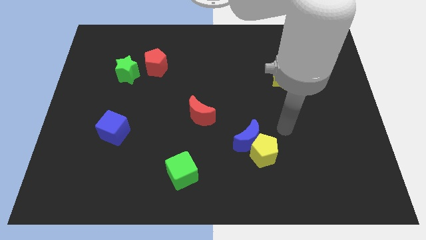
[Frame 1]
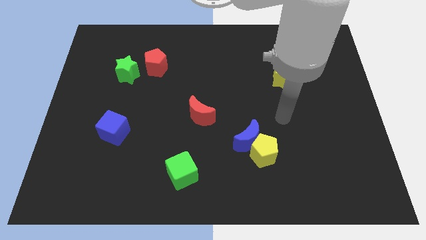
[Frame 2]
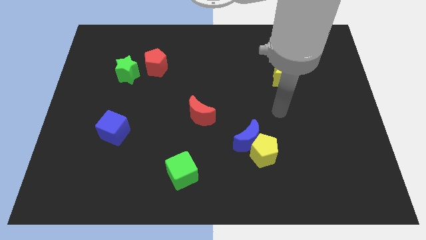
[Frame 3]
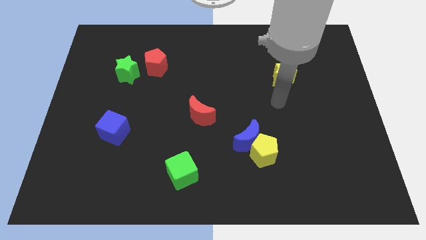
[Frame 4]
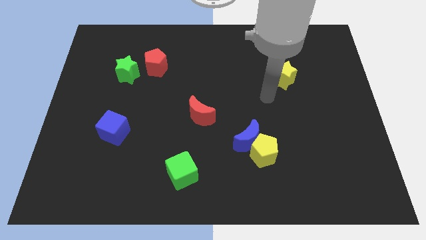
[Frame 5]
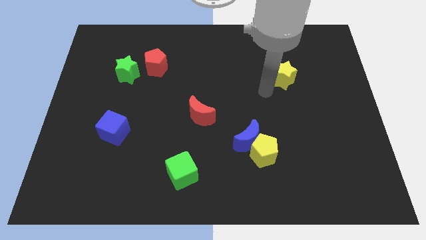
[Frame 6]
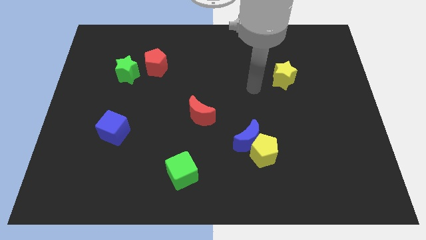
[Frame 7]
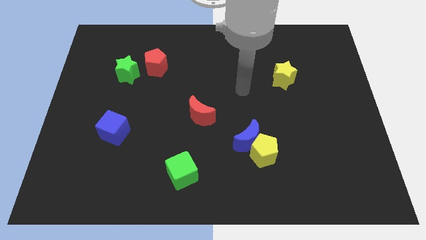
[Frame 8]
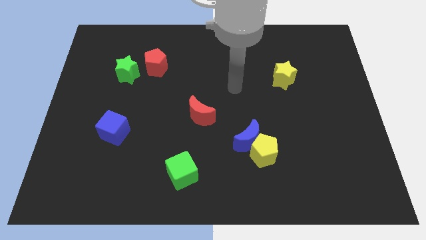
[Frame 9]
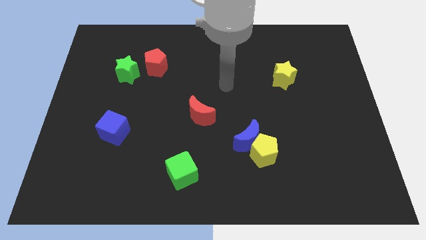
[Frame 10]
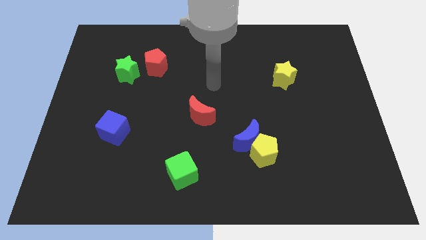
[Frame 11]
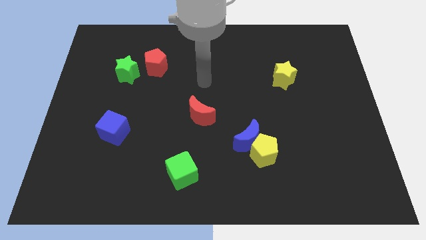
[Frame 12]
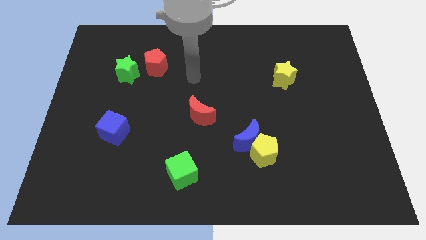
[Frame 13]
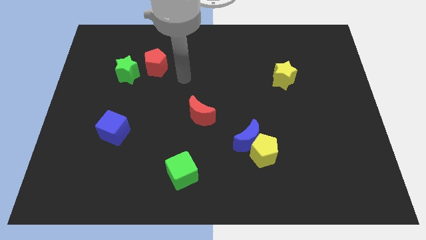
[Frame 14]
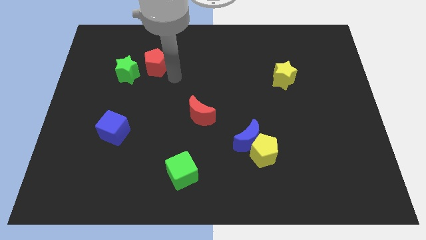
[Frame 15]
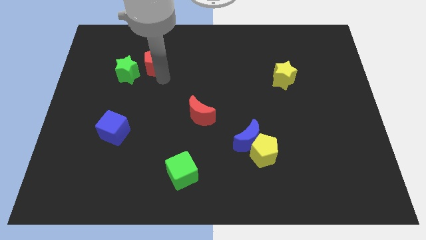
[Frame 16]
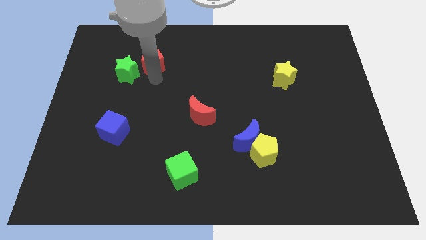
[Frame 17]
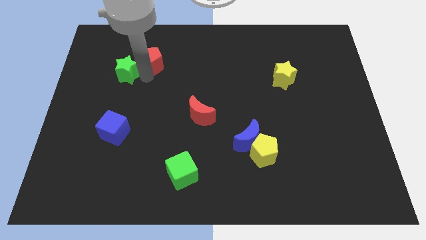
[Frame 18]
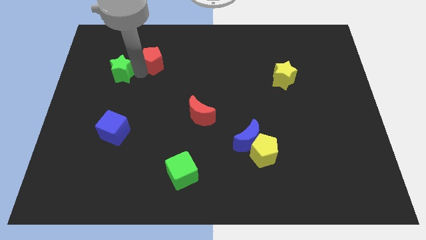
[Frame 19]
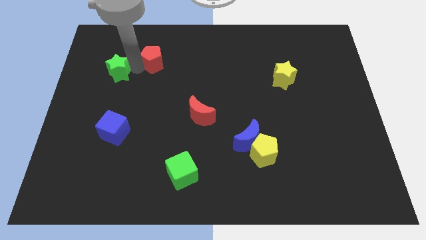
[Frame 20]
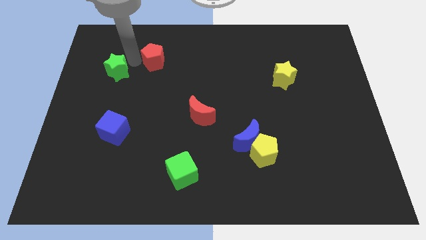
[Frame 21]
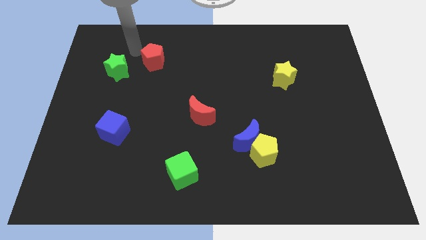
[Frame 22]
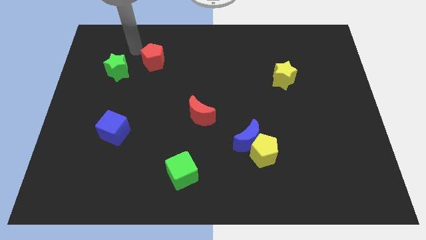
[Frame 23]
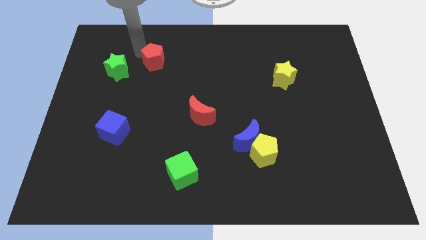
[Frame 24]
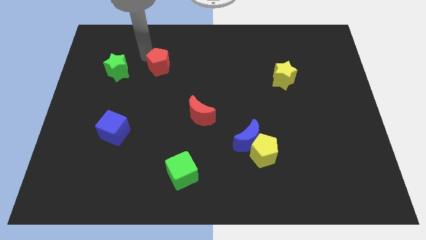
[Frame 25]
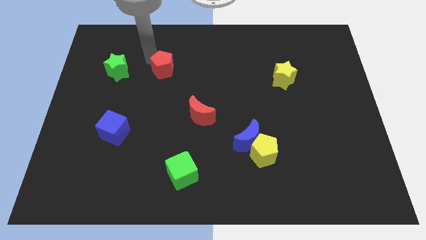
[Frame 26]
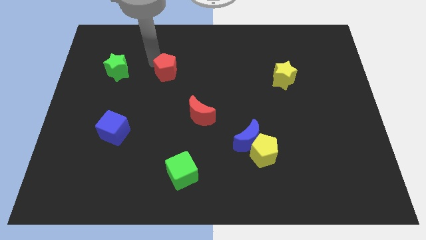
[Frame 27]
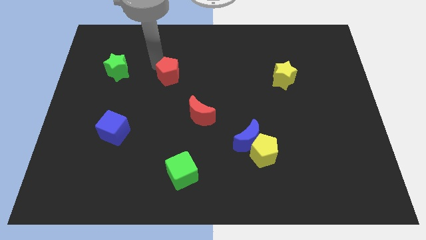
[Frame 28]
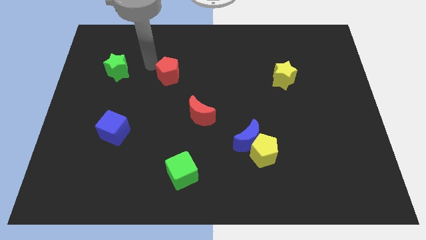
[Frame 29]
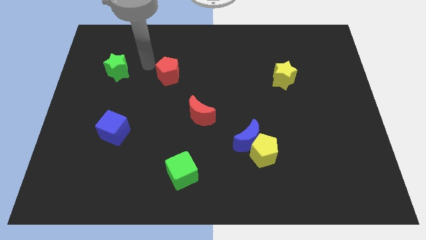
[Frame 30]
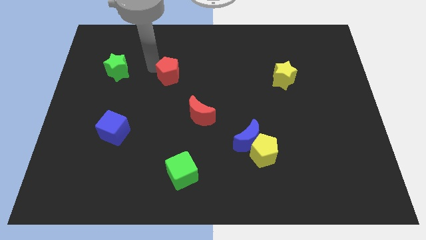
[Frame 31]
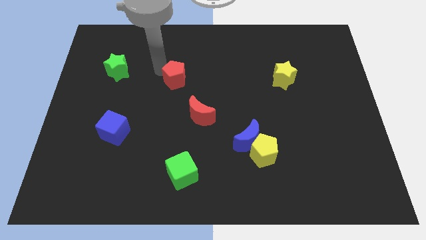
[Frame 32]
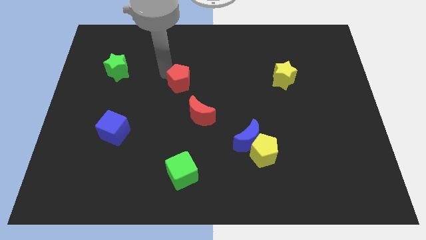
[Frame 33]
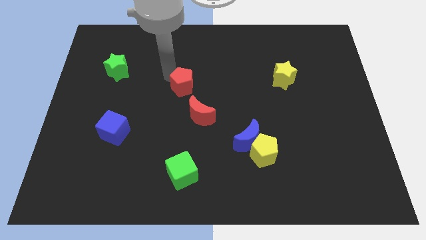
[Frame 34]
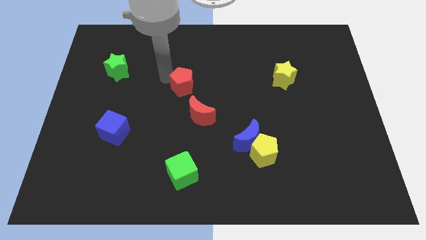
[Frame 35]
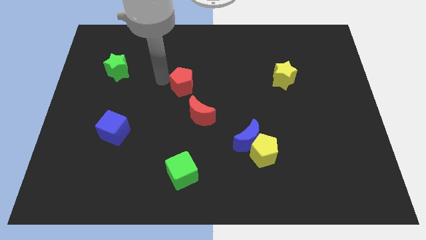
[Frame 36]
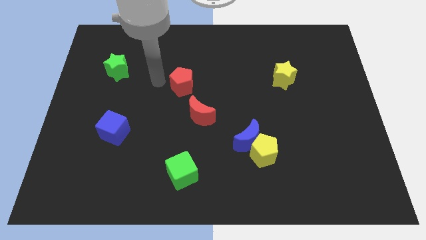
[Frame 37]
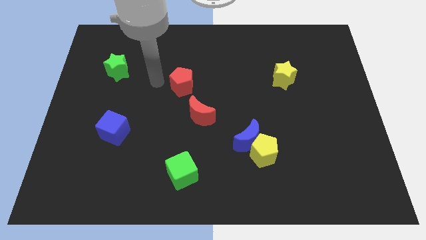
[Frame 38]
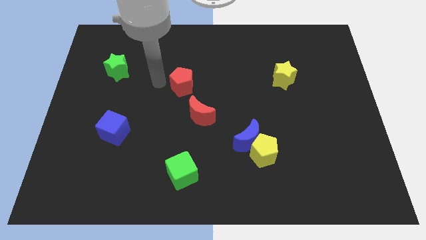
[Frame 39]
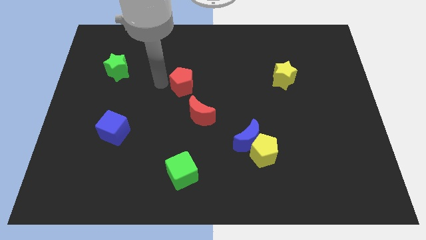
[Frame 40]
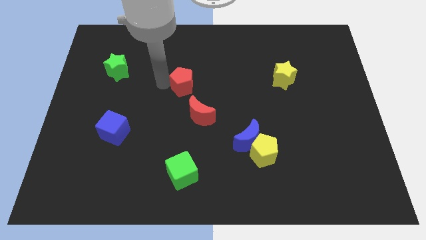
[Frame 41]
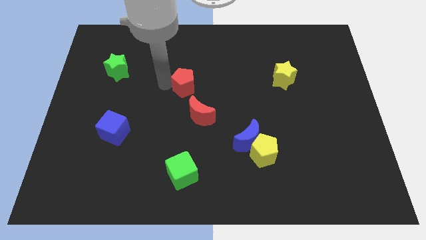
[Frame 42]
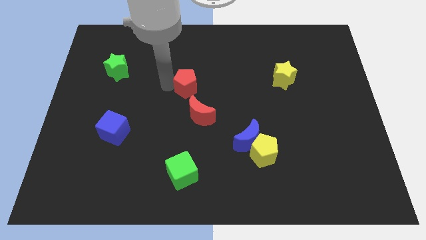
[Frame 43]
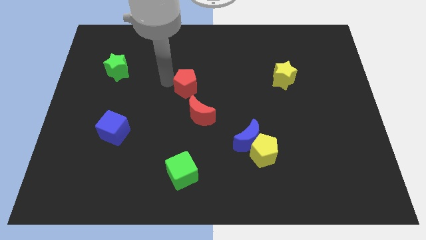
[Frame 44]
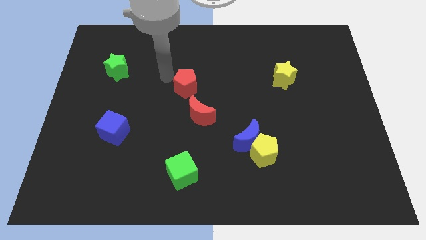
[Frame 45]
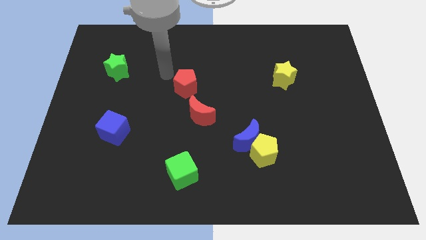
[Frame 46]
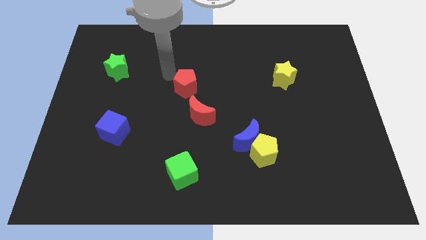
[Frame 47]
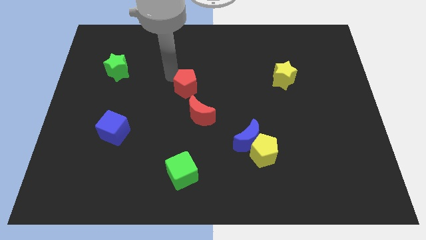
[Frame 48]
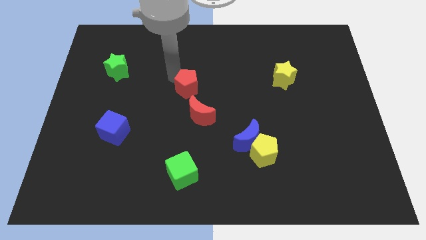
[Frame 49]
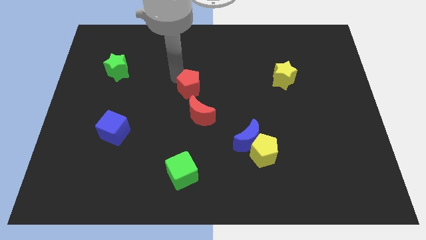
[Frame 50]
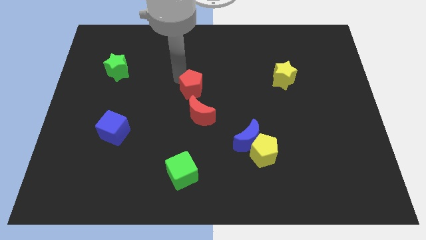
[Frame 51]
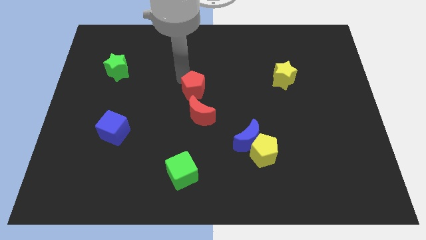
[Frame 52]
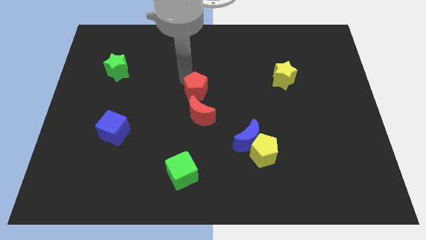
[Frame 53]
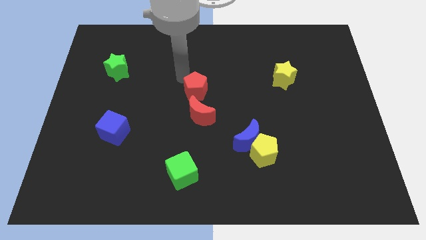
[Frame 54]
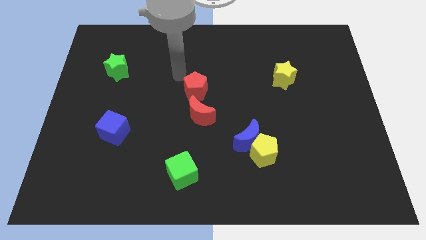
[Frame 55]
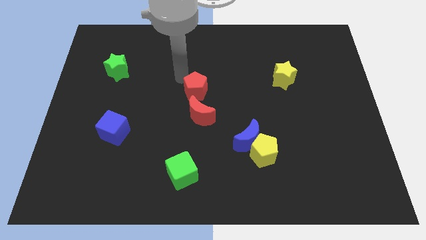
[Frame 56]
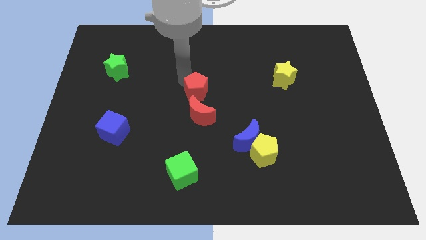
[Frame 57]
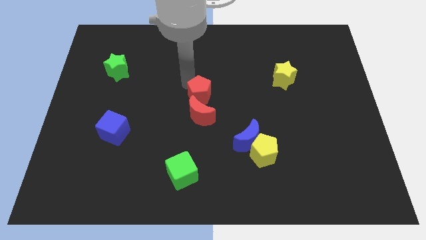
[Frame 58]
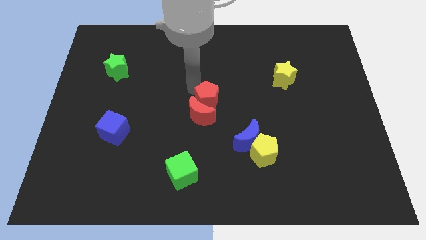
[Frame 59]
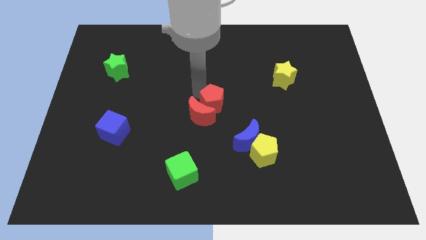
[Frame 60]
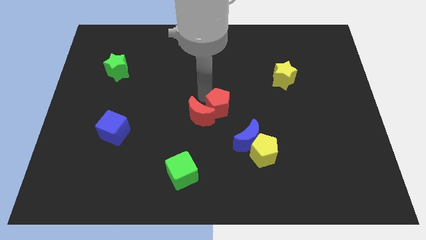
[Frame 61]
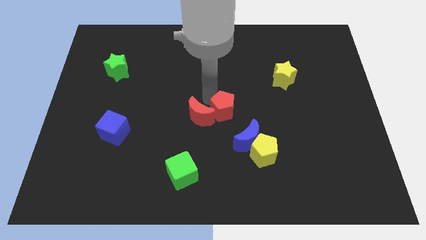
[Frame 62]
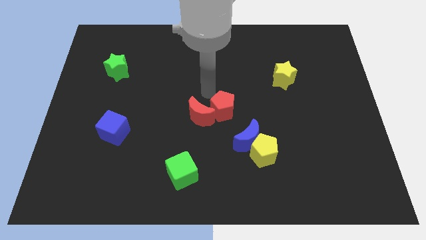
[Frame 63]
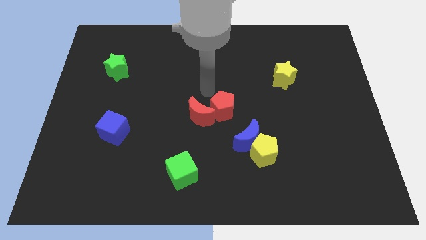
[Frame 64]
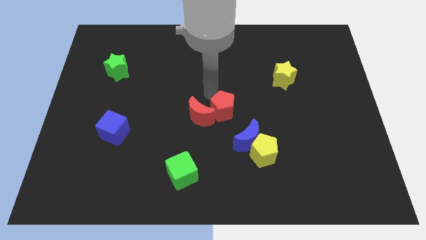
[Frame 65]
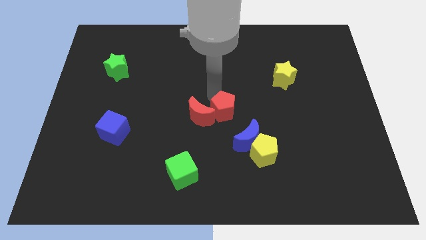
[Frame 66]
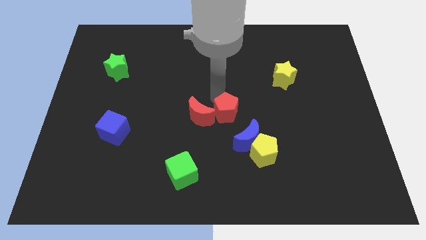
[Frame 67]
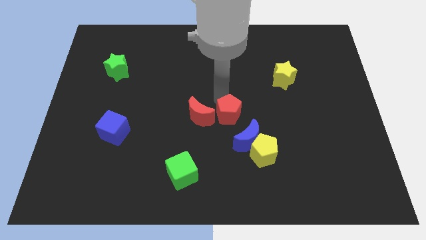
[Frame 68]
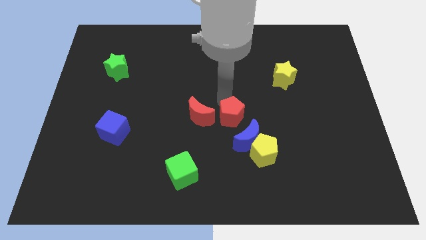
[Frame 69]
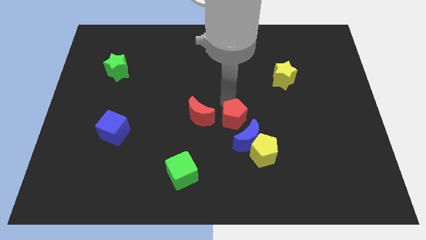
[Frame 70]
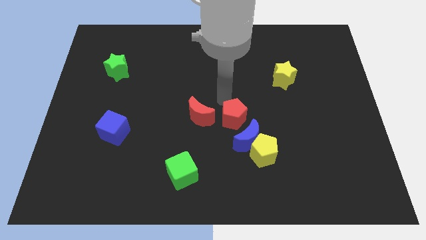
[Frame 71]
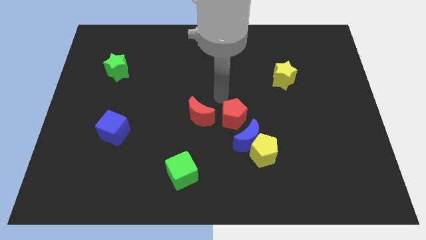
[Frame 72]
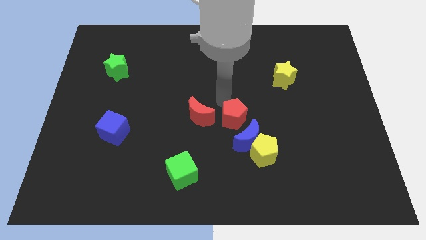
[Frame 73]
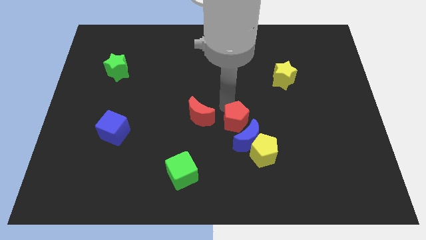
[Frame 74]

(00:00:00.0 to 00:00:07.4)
push the red pentagon close to the blue moon

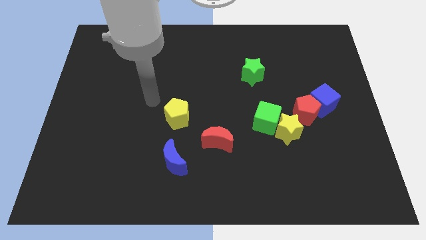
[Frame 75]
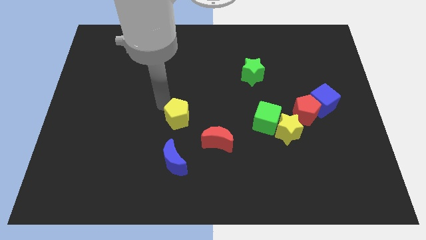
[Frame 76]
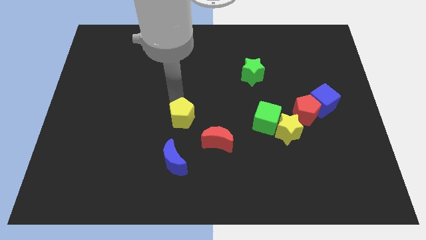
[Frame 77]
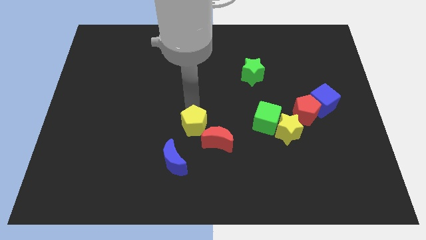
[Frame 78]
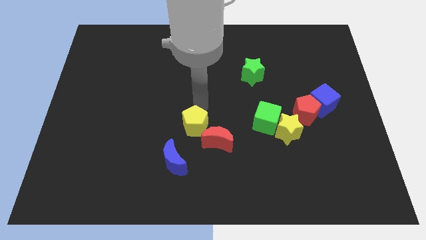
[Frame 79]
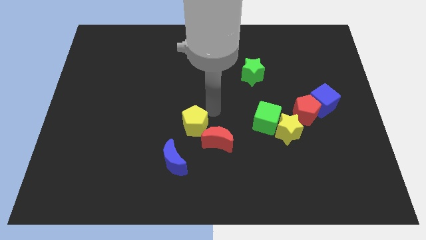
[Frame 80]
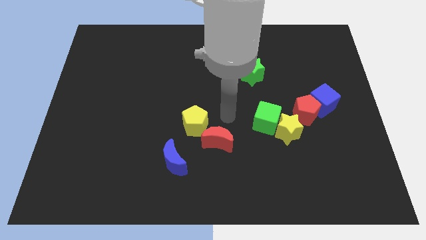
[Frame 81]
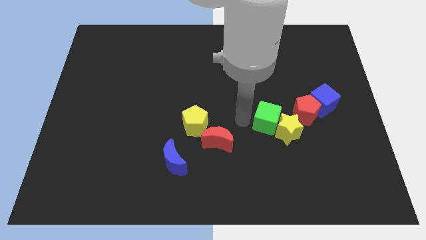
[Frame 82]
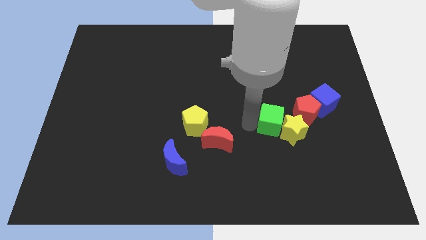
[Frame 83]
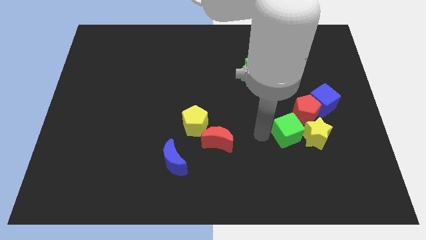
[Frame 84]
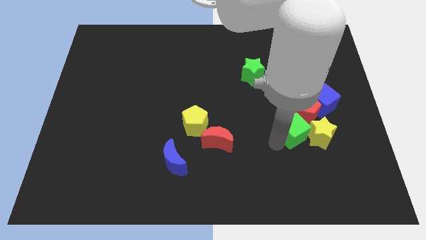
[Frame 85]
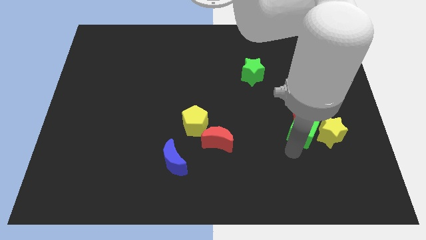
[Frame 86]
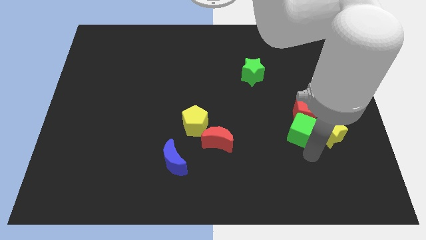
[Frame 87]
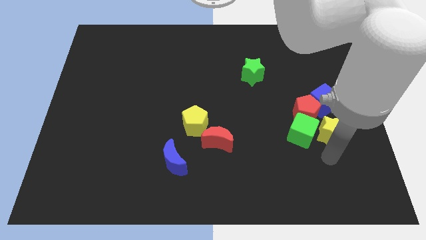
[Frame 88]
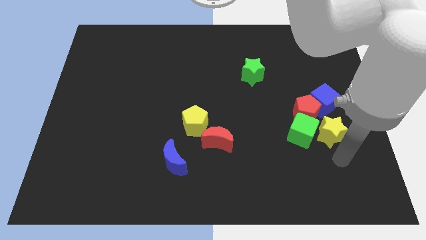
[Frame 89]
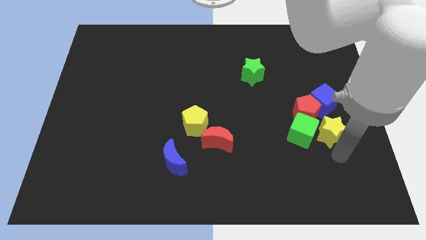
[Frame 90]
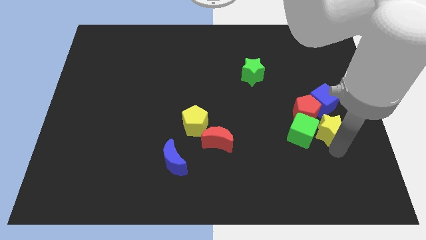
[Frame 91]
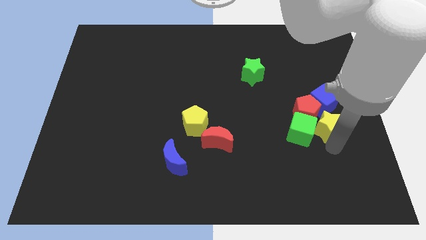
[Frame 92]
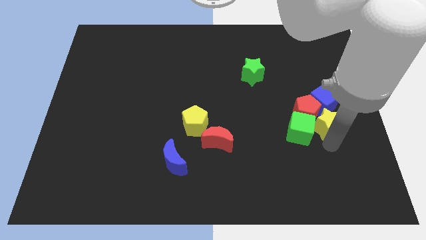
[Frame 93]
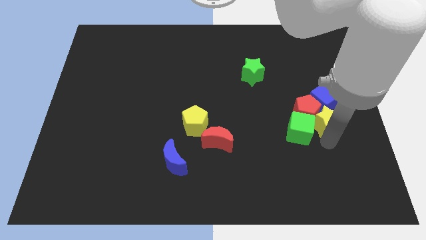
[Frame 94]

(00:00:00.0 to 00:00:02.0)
push the yellow star next to the blue cube
